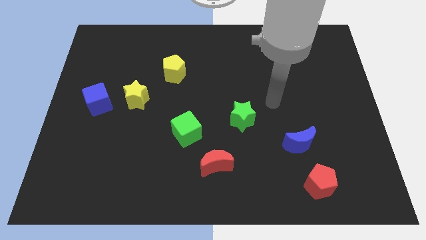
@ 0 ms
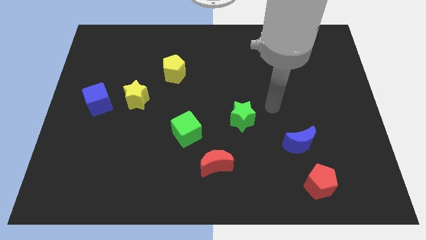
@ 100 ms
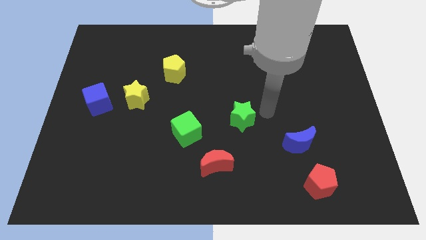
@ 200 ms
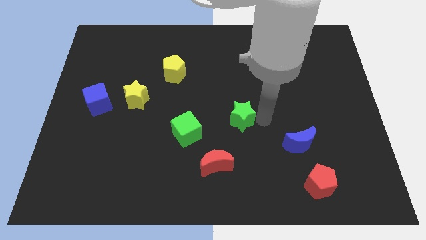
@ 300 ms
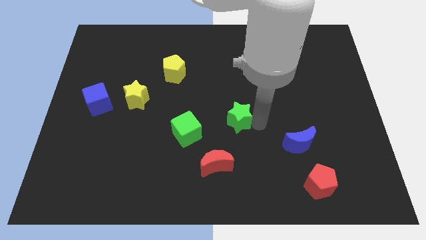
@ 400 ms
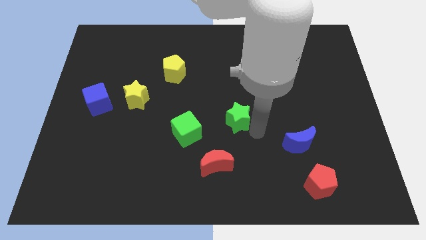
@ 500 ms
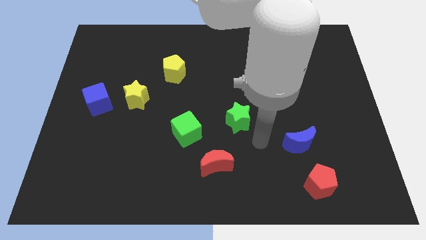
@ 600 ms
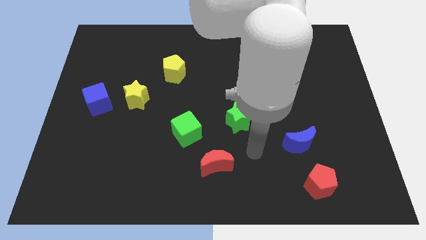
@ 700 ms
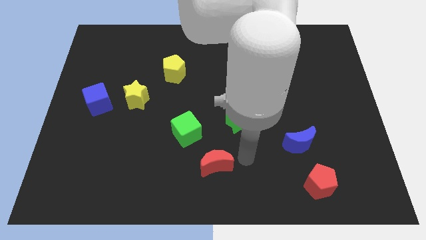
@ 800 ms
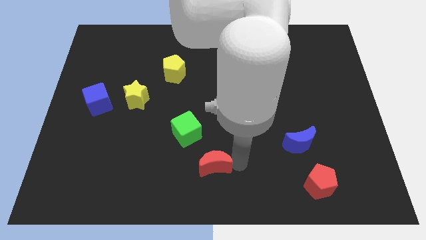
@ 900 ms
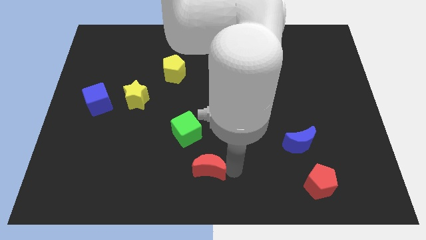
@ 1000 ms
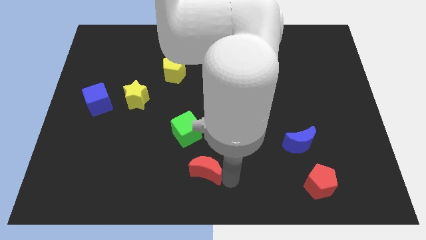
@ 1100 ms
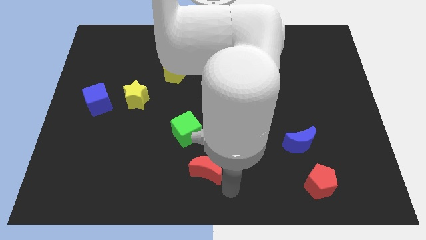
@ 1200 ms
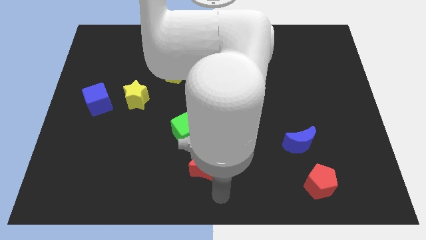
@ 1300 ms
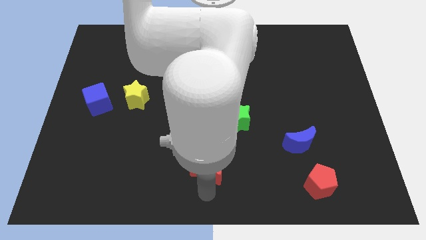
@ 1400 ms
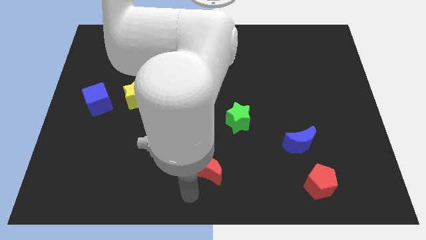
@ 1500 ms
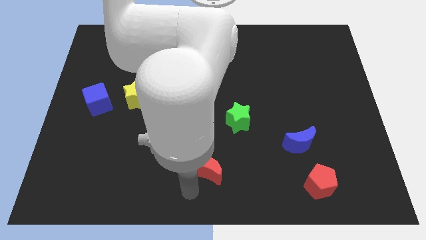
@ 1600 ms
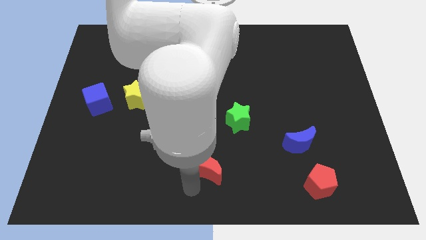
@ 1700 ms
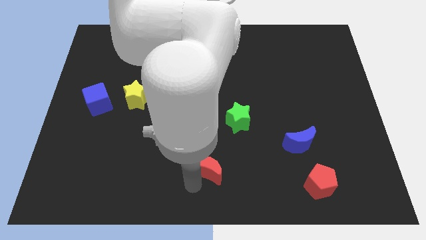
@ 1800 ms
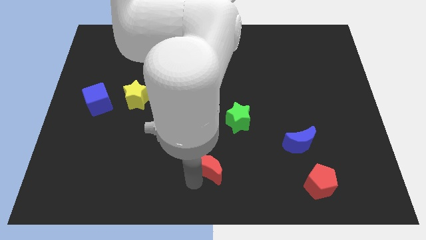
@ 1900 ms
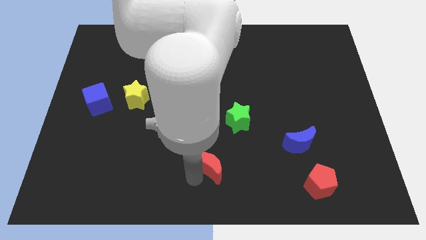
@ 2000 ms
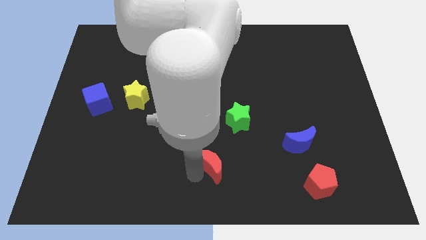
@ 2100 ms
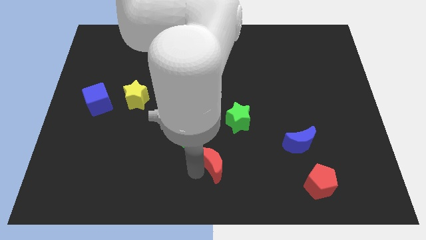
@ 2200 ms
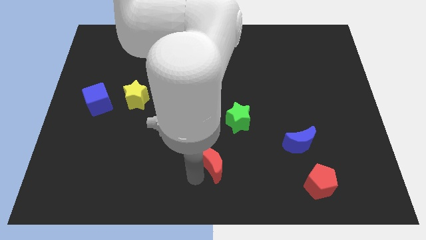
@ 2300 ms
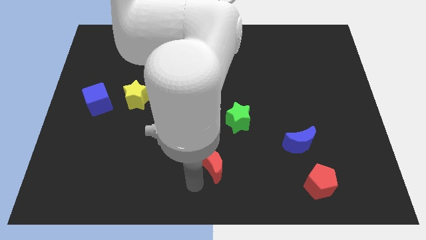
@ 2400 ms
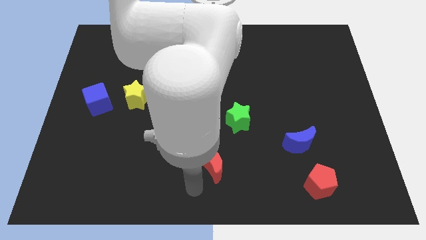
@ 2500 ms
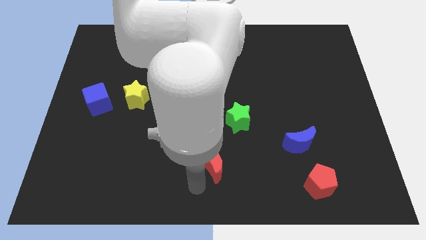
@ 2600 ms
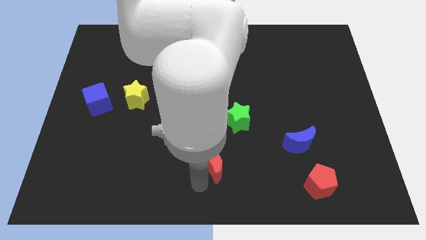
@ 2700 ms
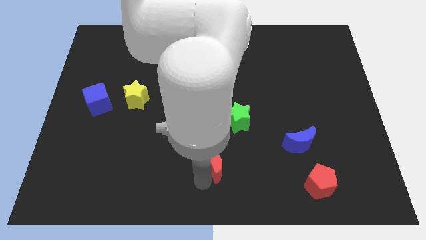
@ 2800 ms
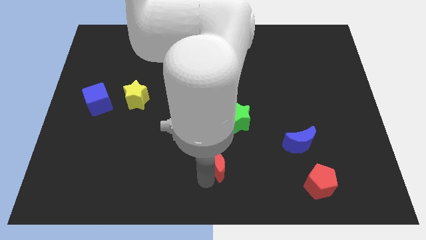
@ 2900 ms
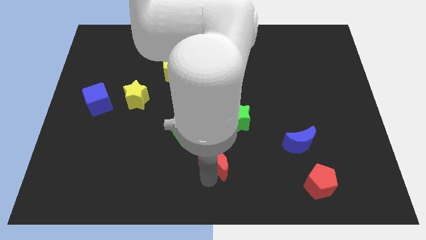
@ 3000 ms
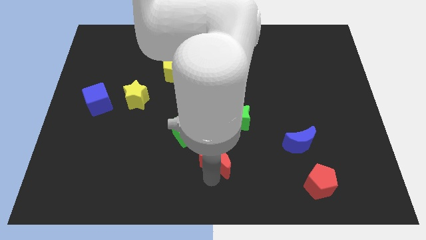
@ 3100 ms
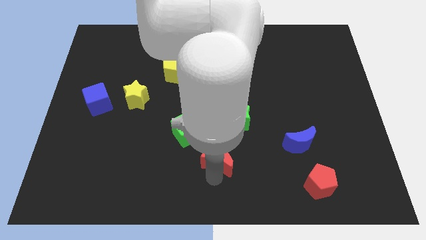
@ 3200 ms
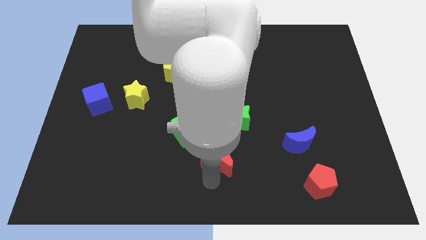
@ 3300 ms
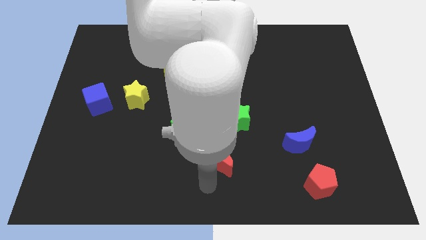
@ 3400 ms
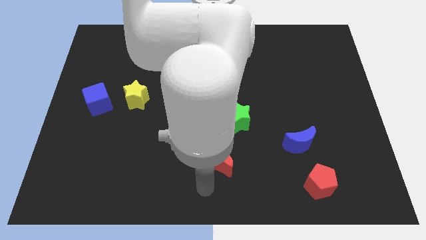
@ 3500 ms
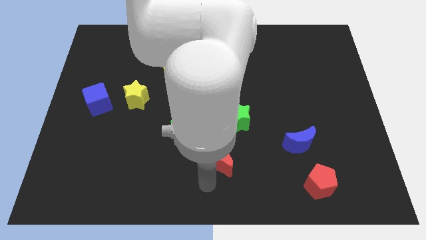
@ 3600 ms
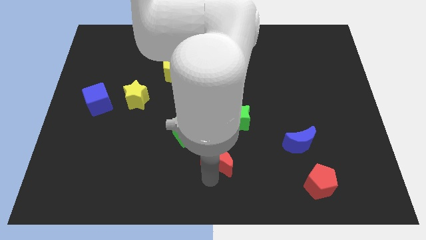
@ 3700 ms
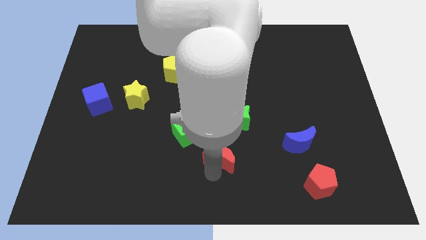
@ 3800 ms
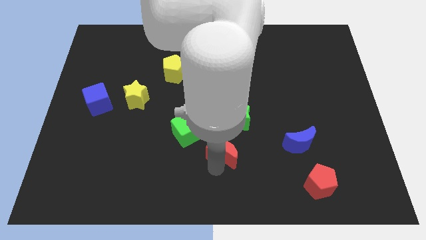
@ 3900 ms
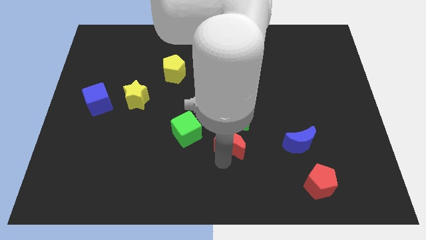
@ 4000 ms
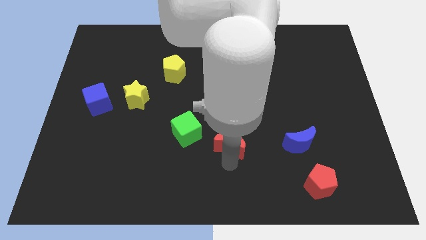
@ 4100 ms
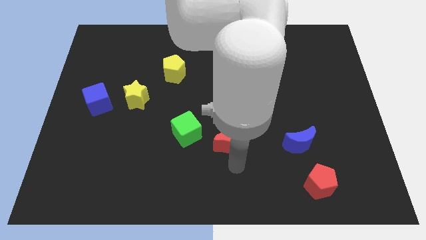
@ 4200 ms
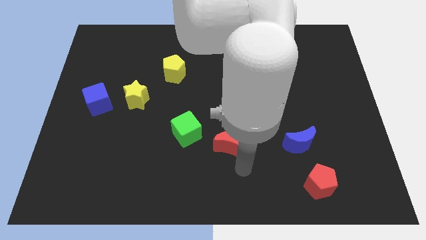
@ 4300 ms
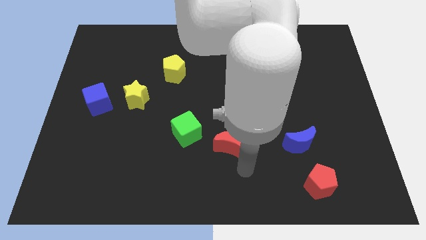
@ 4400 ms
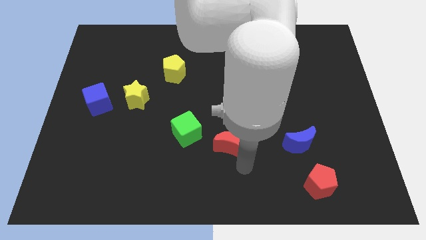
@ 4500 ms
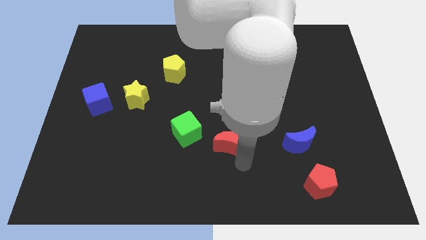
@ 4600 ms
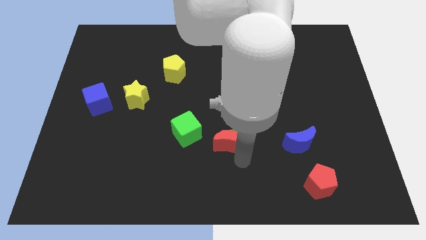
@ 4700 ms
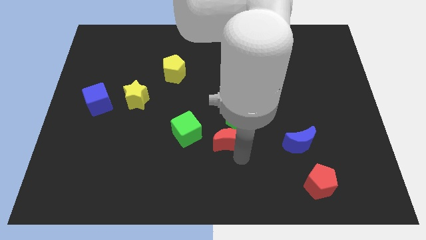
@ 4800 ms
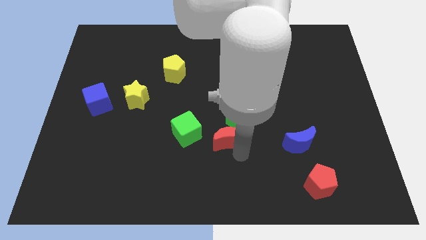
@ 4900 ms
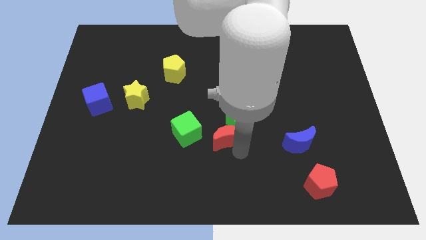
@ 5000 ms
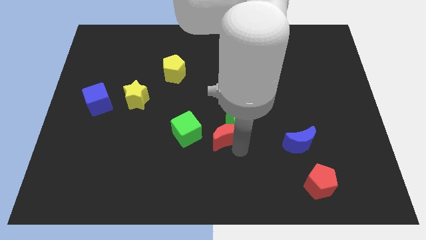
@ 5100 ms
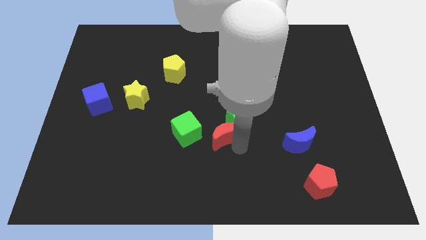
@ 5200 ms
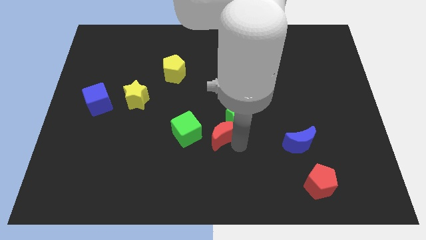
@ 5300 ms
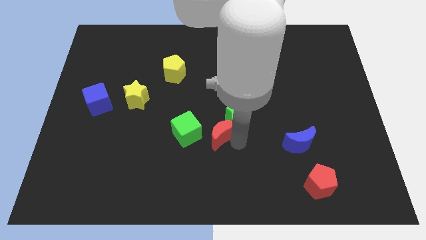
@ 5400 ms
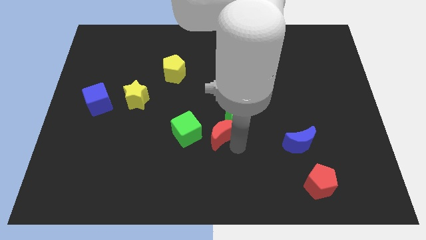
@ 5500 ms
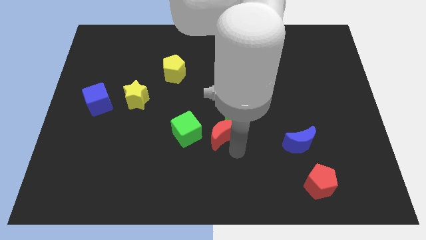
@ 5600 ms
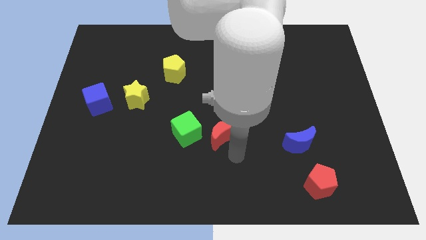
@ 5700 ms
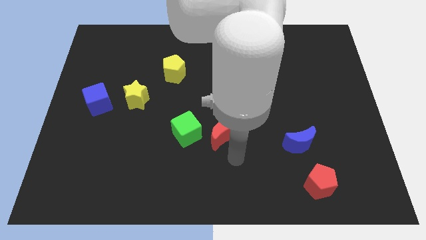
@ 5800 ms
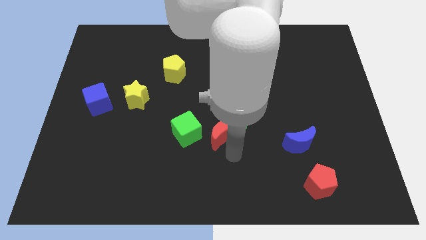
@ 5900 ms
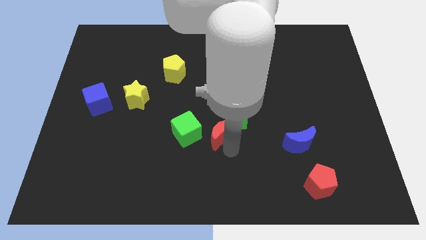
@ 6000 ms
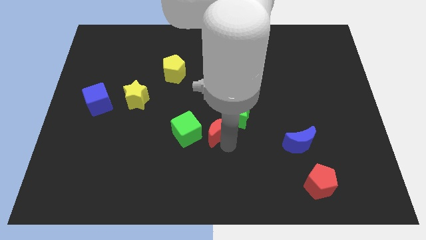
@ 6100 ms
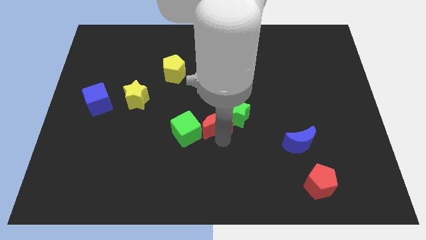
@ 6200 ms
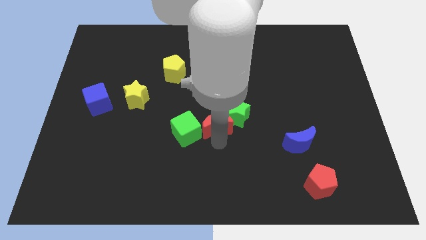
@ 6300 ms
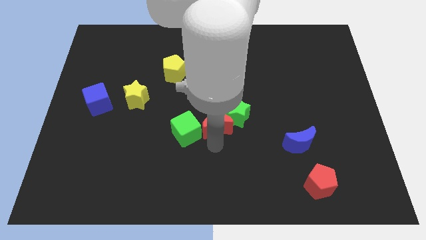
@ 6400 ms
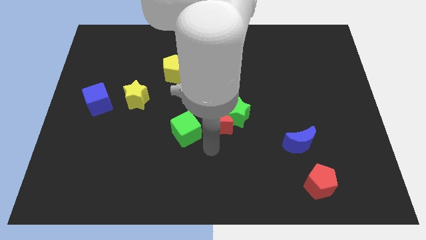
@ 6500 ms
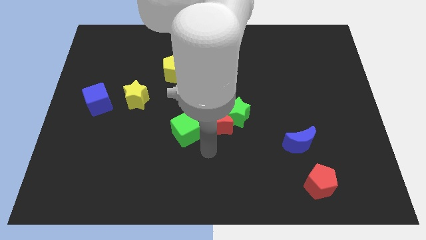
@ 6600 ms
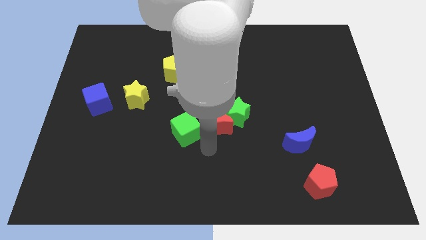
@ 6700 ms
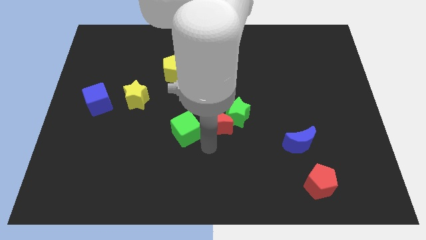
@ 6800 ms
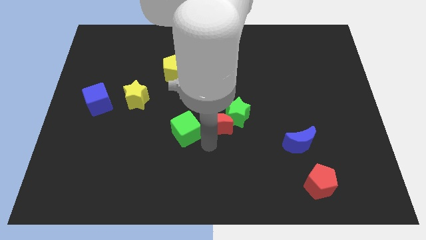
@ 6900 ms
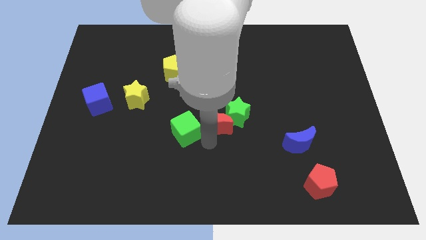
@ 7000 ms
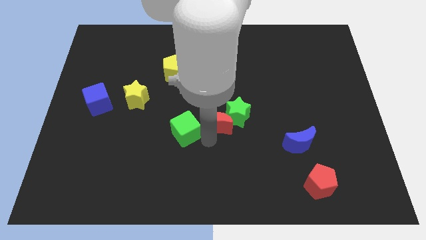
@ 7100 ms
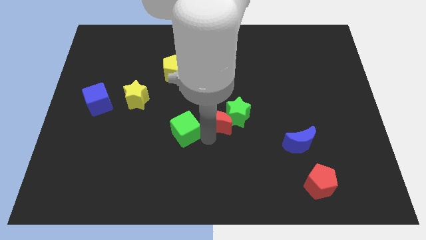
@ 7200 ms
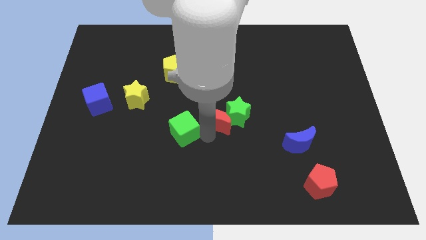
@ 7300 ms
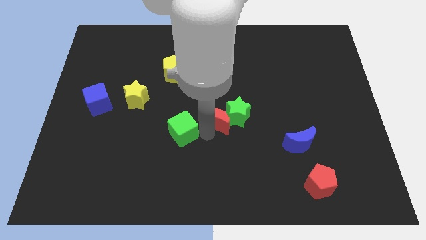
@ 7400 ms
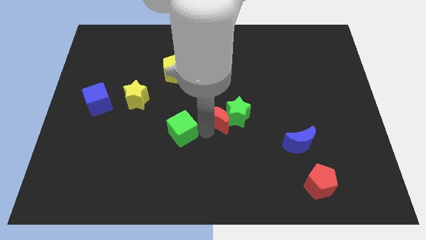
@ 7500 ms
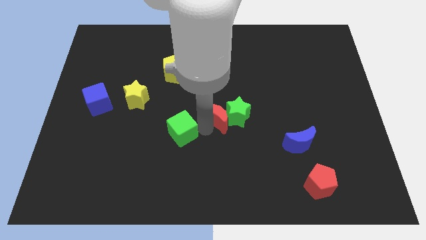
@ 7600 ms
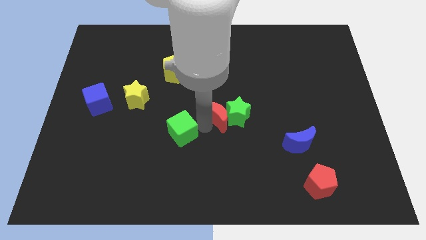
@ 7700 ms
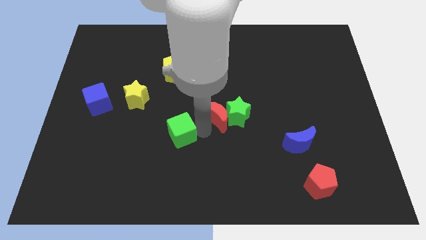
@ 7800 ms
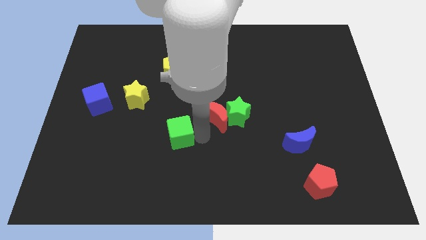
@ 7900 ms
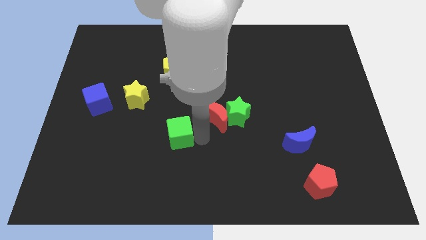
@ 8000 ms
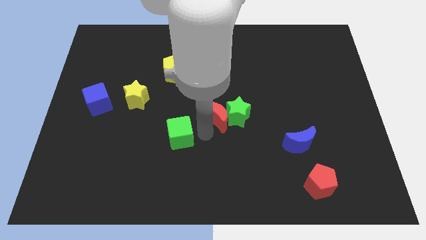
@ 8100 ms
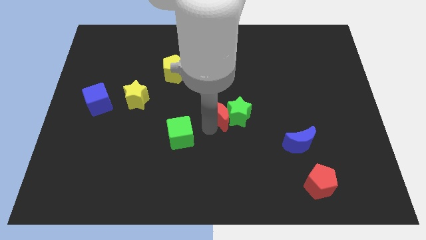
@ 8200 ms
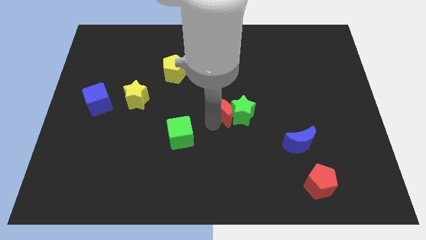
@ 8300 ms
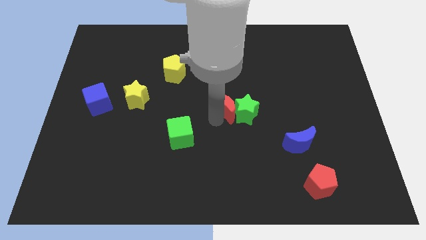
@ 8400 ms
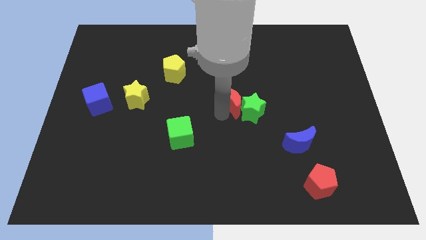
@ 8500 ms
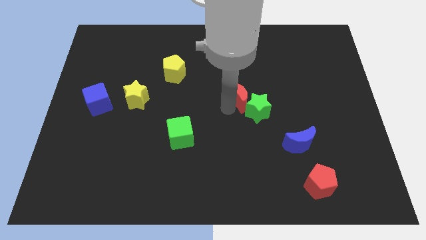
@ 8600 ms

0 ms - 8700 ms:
put the red moon above the green star
